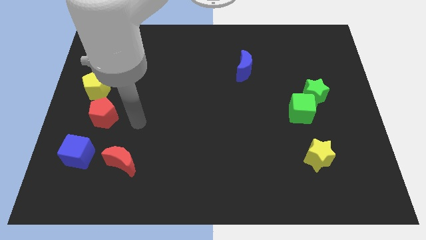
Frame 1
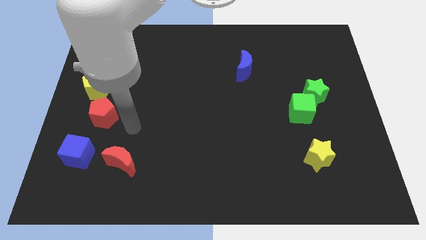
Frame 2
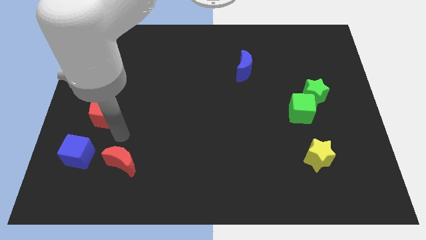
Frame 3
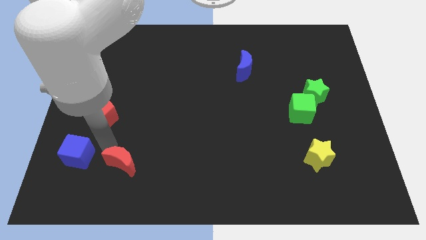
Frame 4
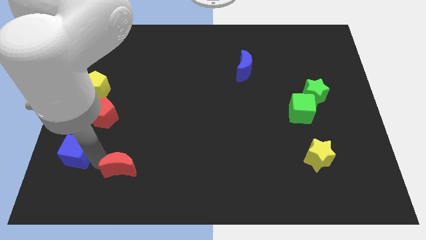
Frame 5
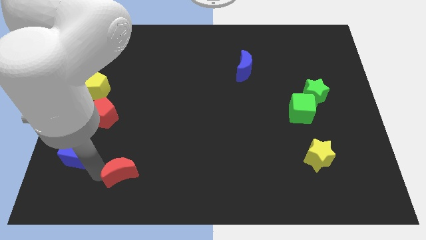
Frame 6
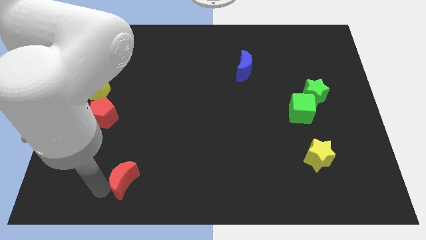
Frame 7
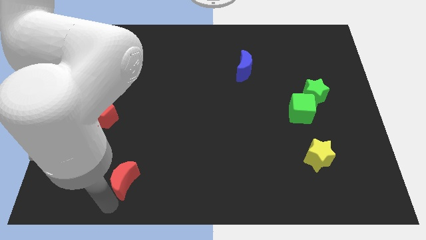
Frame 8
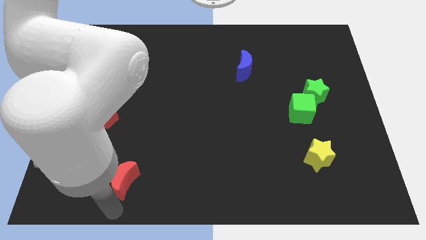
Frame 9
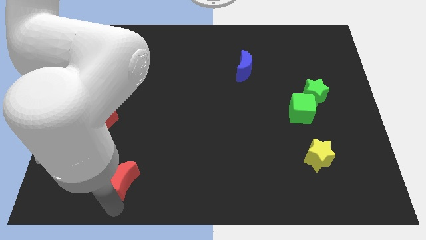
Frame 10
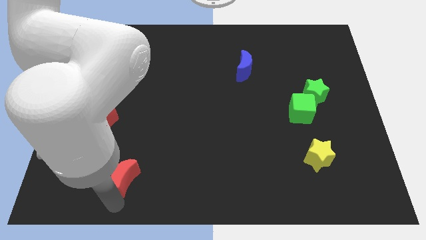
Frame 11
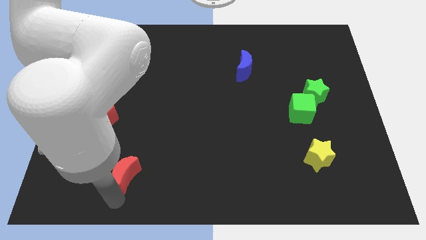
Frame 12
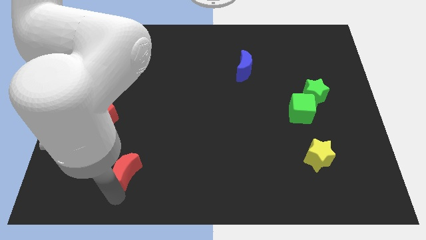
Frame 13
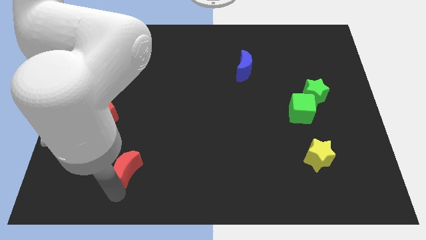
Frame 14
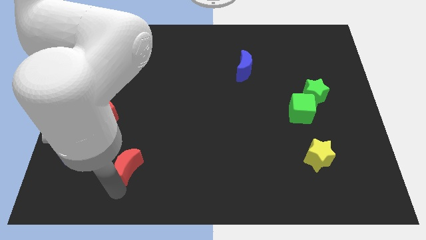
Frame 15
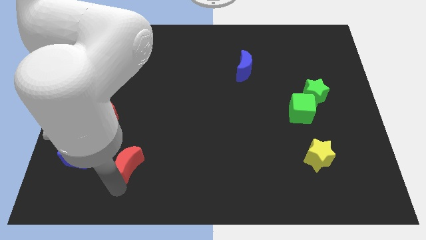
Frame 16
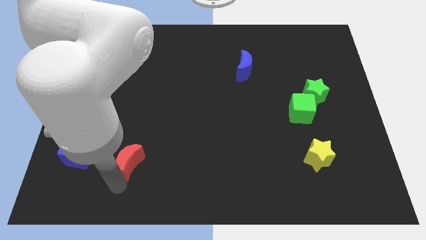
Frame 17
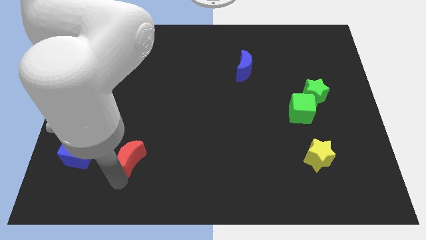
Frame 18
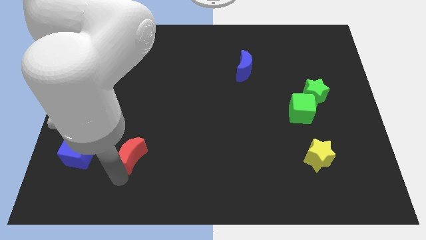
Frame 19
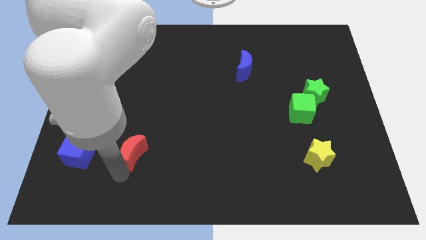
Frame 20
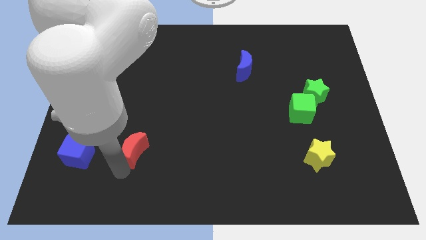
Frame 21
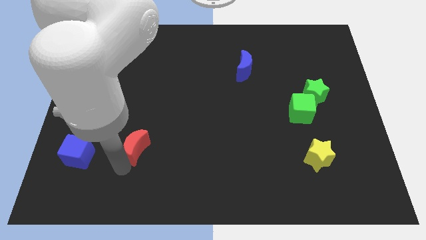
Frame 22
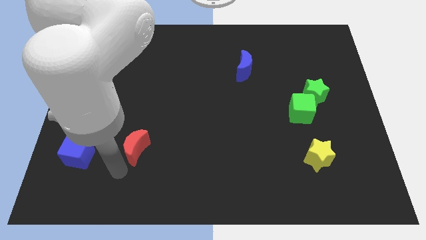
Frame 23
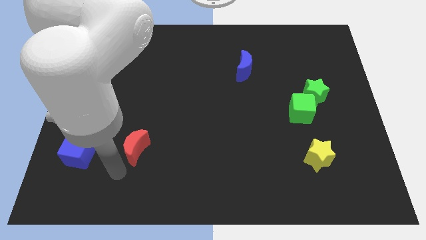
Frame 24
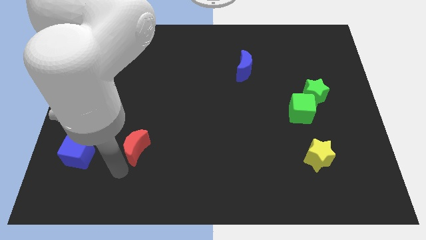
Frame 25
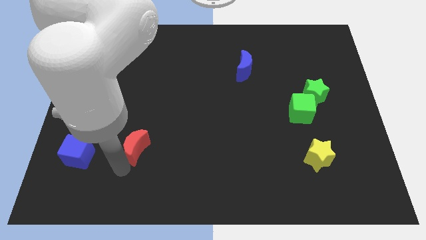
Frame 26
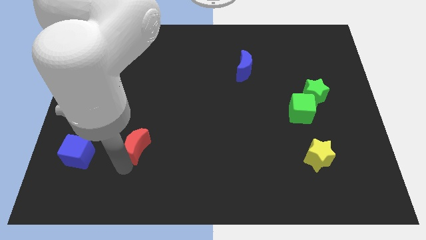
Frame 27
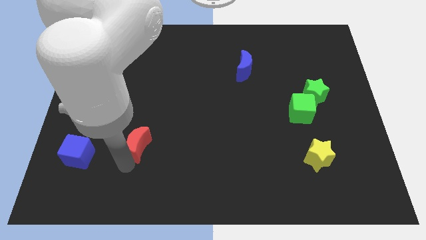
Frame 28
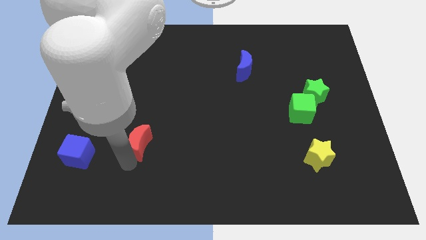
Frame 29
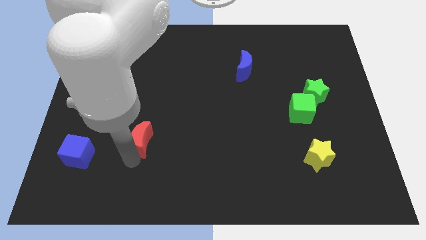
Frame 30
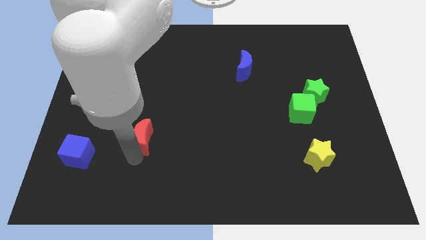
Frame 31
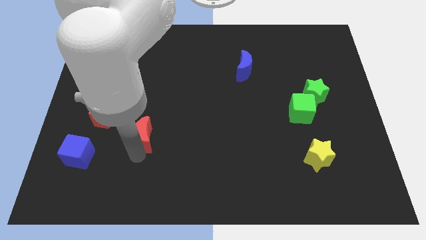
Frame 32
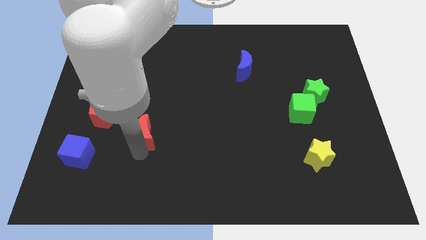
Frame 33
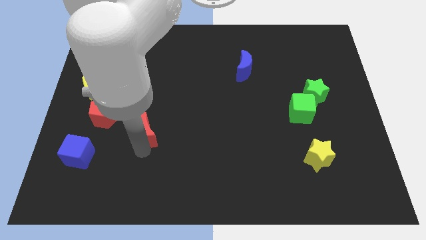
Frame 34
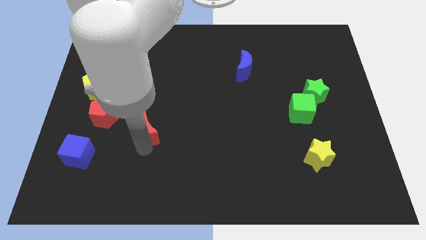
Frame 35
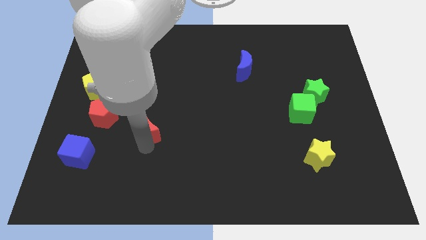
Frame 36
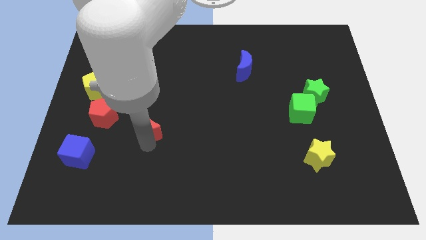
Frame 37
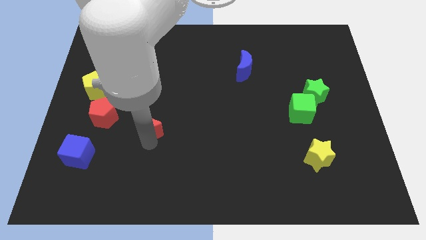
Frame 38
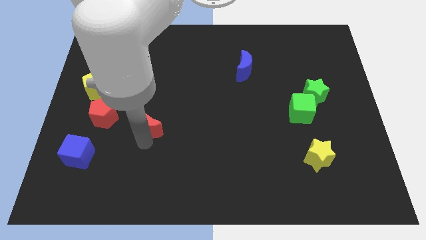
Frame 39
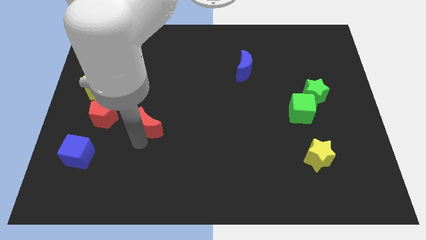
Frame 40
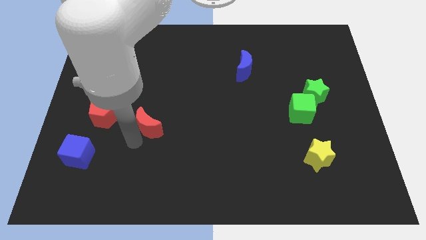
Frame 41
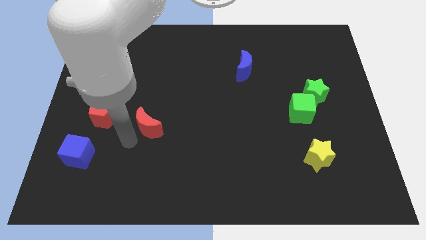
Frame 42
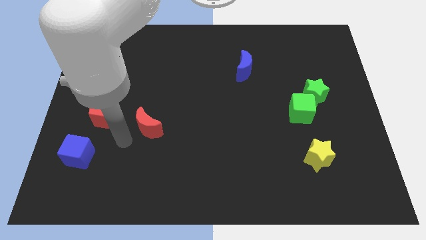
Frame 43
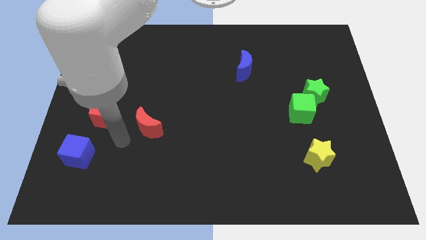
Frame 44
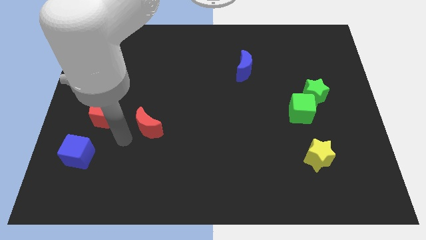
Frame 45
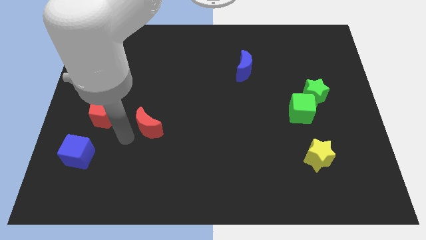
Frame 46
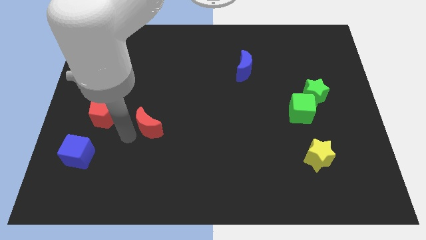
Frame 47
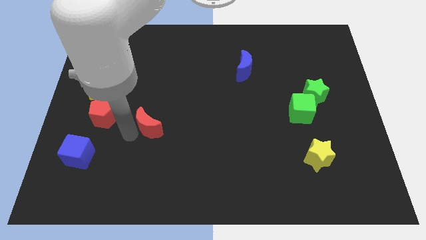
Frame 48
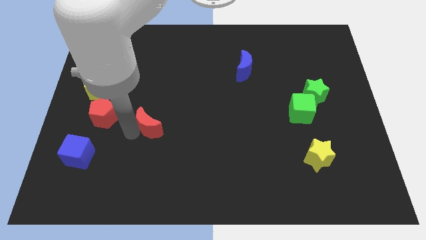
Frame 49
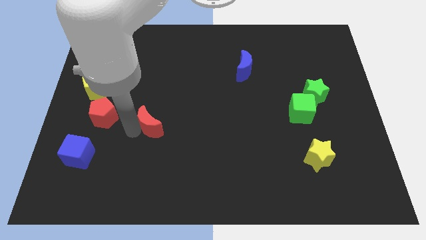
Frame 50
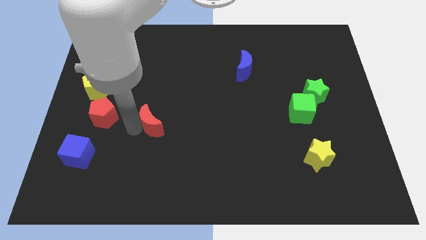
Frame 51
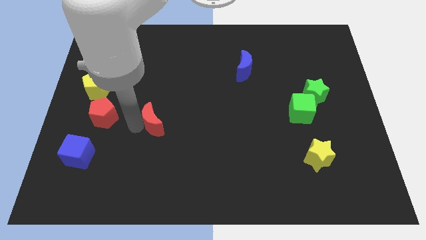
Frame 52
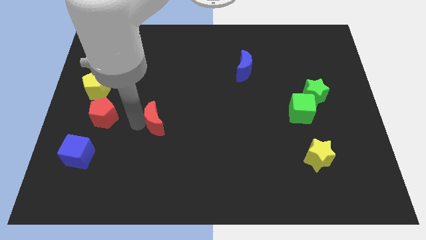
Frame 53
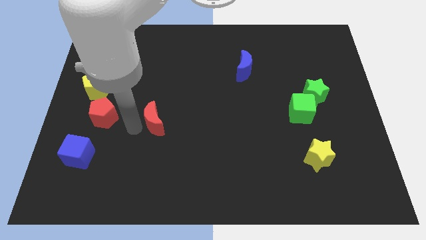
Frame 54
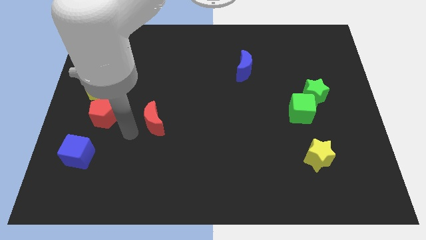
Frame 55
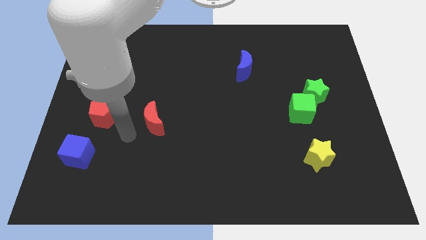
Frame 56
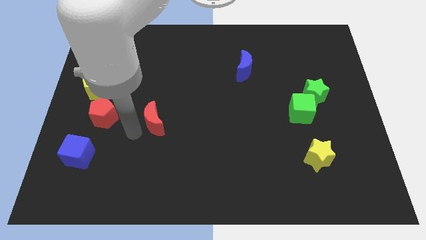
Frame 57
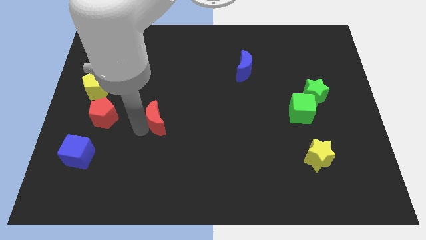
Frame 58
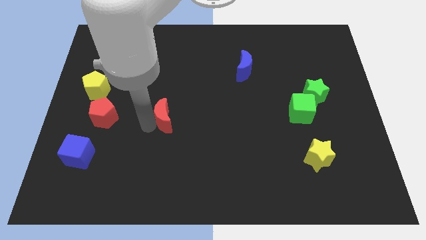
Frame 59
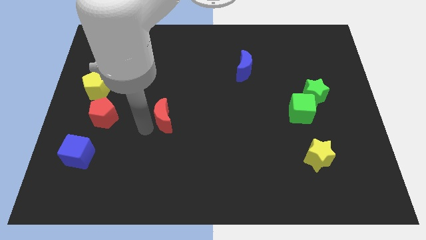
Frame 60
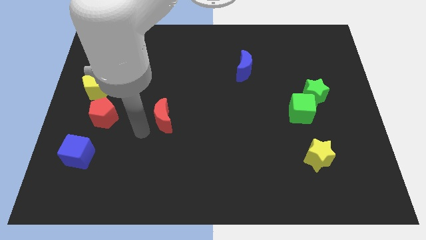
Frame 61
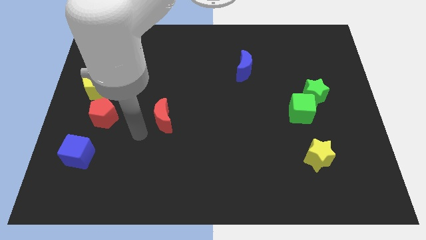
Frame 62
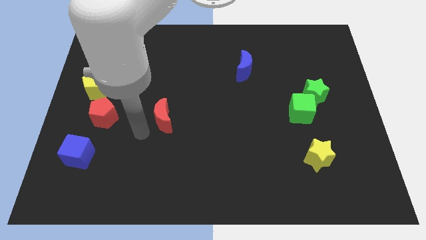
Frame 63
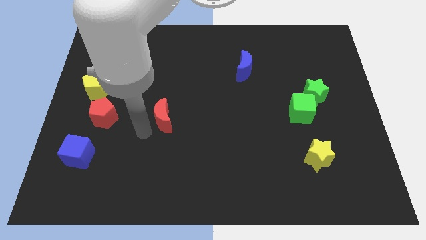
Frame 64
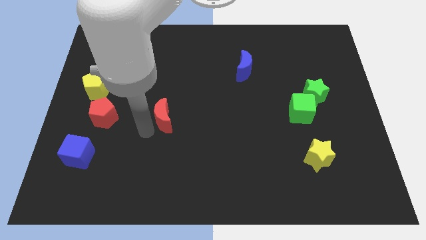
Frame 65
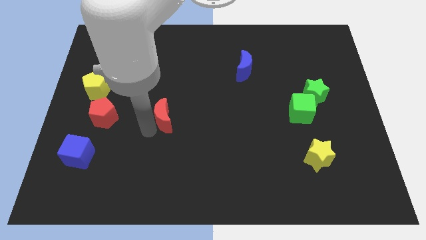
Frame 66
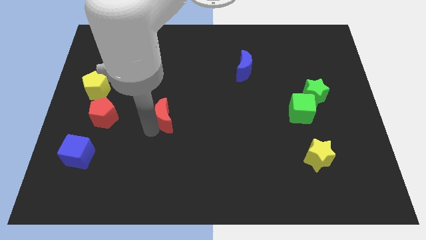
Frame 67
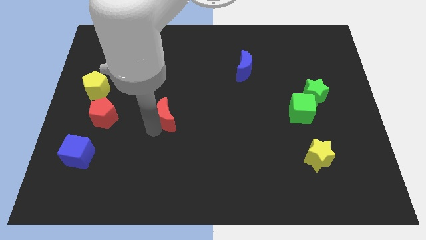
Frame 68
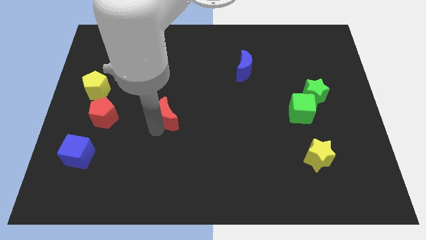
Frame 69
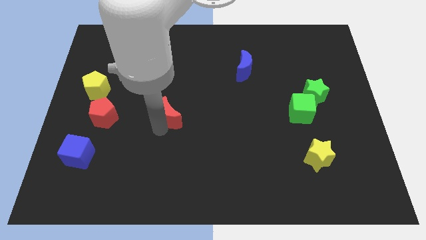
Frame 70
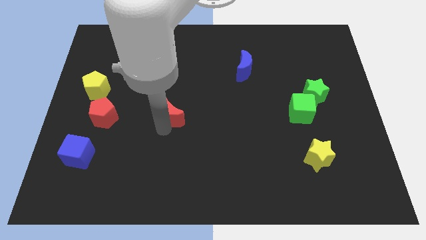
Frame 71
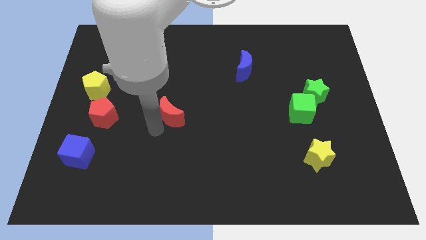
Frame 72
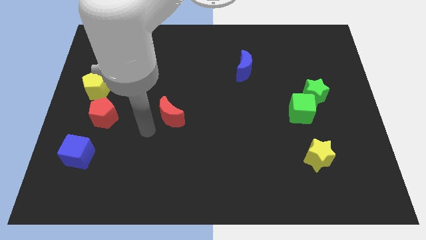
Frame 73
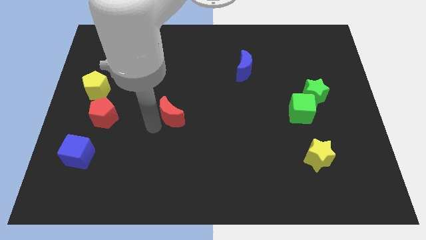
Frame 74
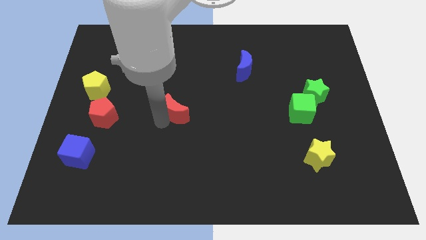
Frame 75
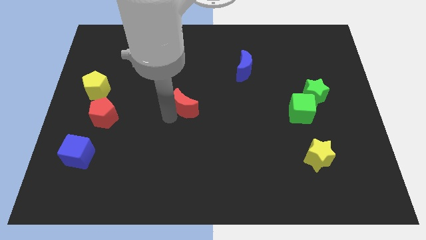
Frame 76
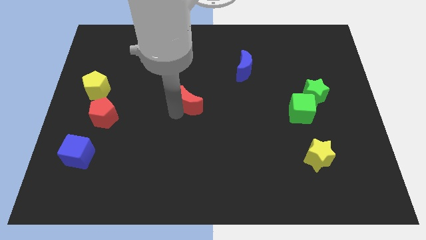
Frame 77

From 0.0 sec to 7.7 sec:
push the red moon diagonally up and right
